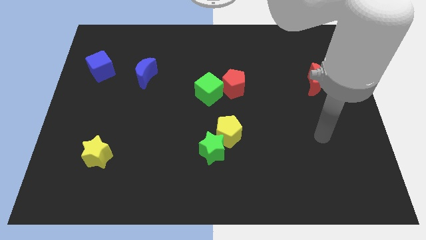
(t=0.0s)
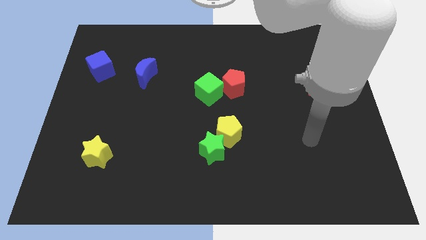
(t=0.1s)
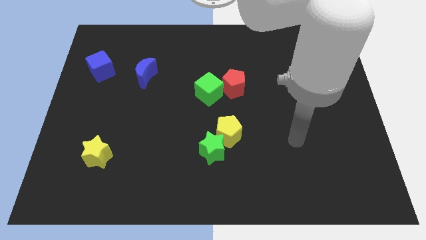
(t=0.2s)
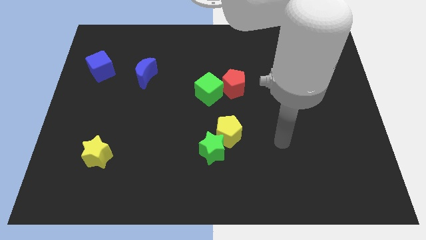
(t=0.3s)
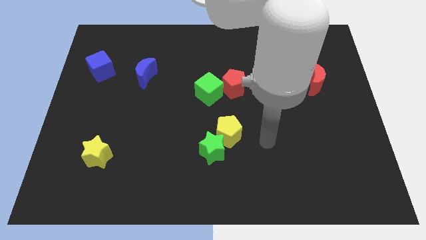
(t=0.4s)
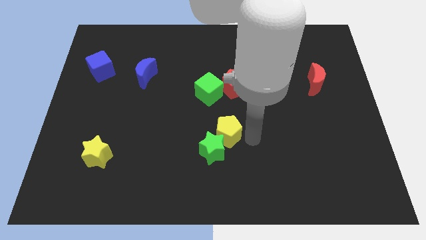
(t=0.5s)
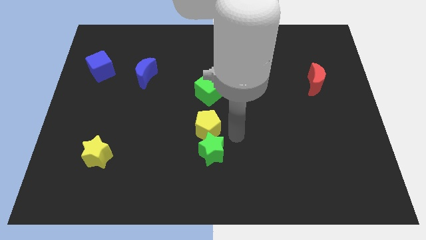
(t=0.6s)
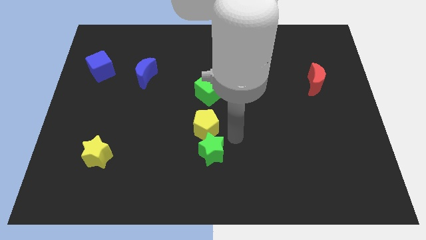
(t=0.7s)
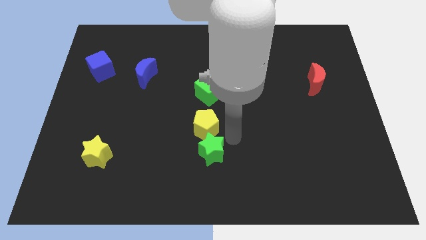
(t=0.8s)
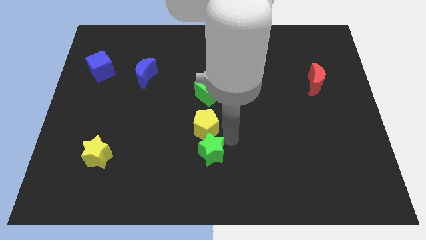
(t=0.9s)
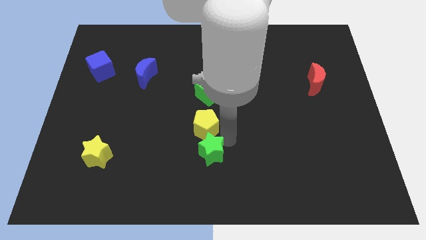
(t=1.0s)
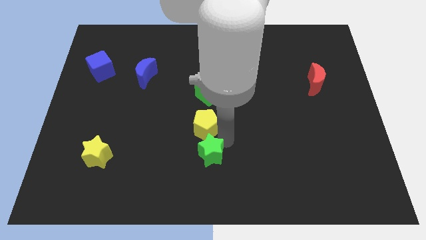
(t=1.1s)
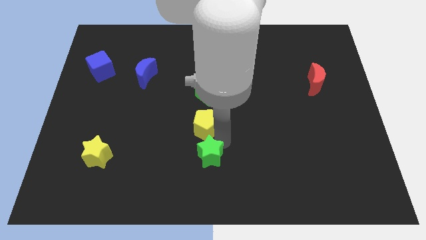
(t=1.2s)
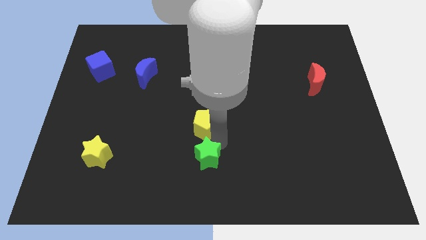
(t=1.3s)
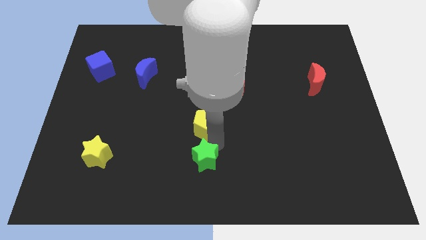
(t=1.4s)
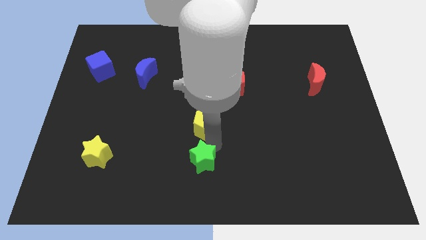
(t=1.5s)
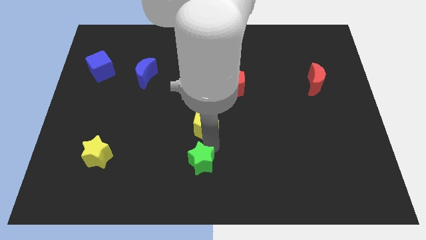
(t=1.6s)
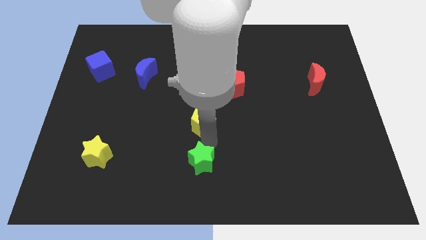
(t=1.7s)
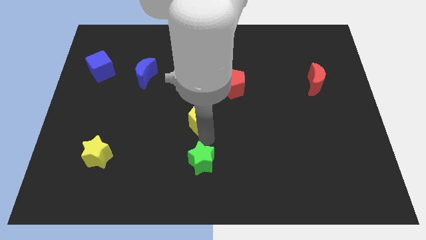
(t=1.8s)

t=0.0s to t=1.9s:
pull the green star apart from the yellow pentagon

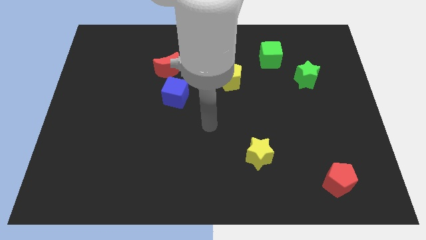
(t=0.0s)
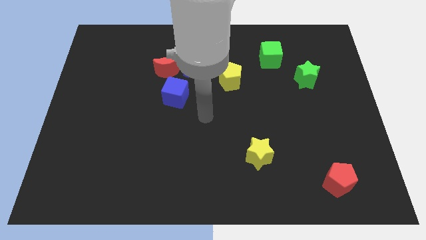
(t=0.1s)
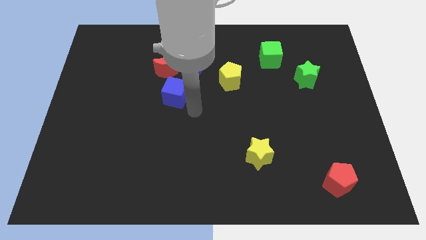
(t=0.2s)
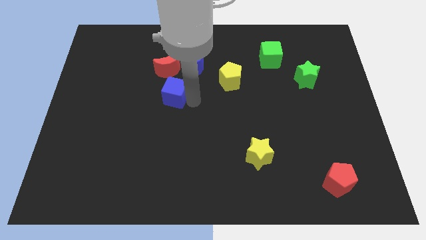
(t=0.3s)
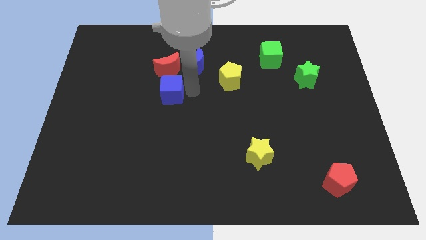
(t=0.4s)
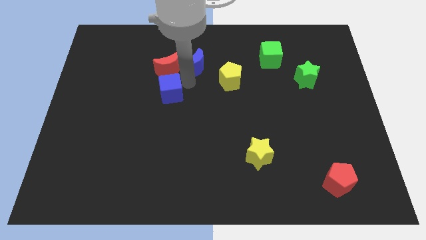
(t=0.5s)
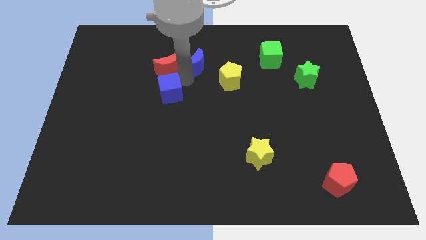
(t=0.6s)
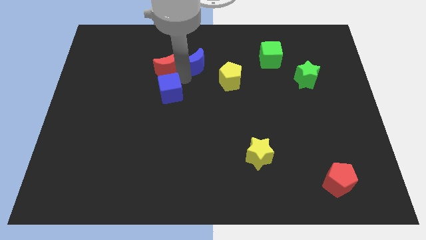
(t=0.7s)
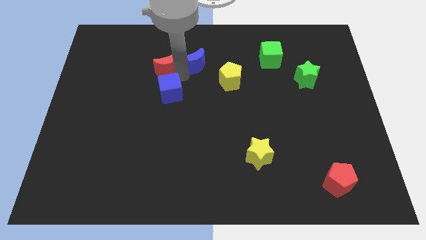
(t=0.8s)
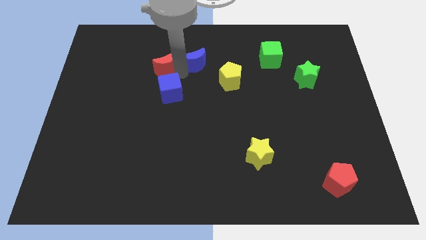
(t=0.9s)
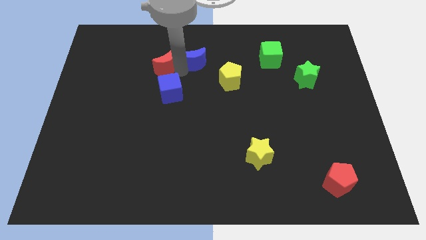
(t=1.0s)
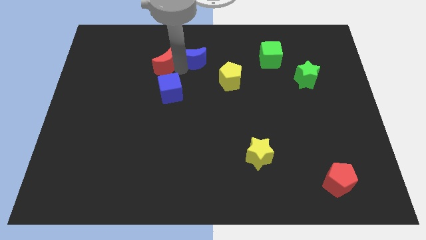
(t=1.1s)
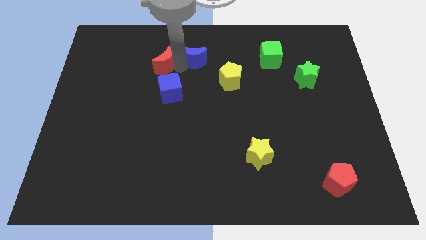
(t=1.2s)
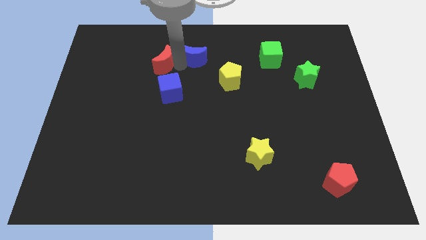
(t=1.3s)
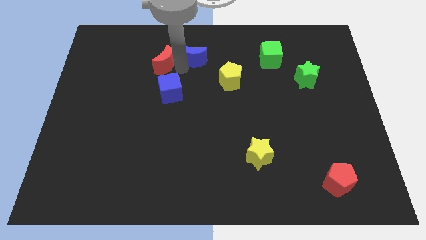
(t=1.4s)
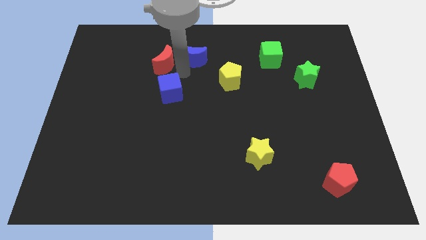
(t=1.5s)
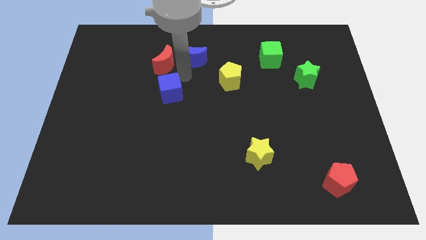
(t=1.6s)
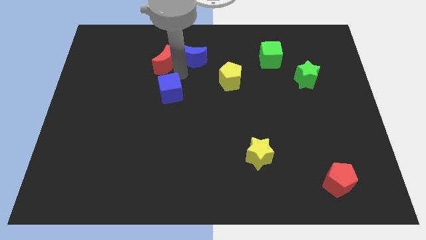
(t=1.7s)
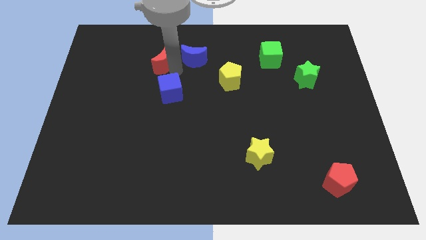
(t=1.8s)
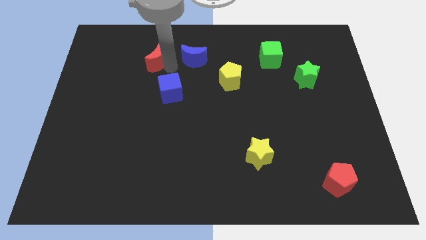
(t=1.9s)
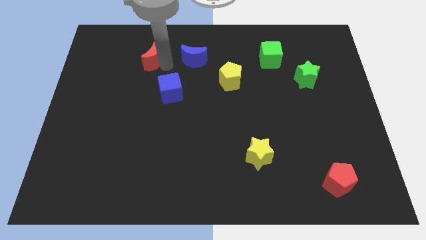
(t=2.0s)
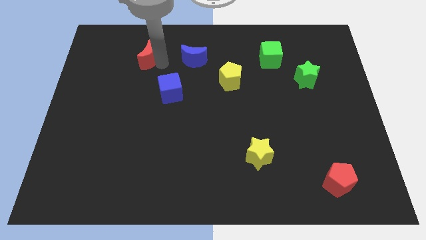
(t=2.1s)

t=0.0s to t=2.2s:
separate the red moon from the blue moon and blue cube

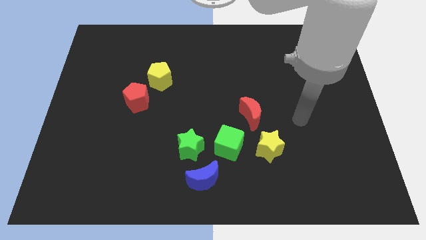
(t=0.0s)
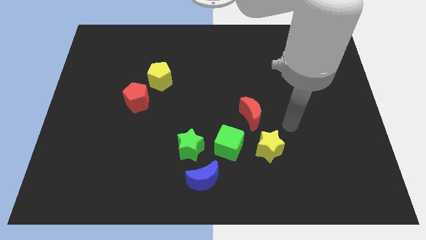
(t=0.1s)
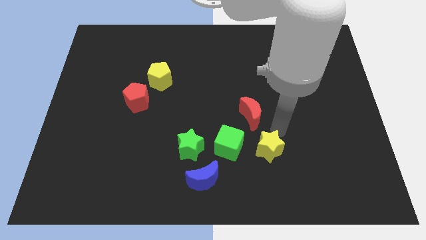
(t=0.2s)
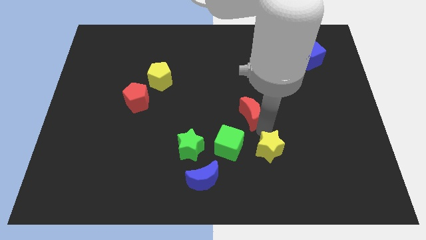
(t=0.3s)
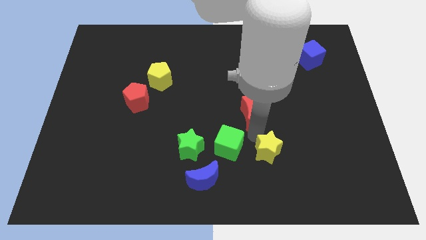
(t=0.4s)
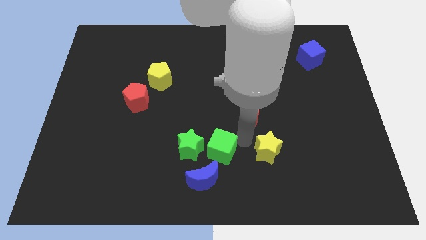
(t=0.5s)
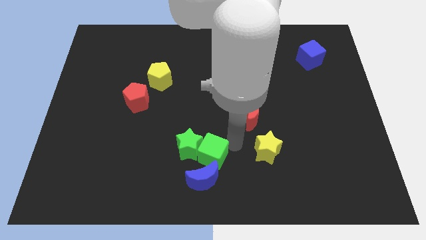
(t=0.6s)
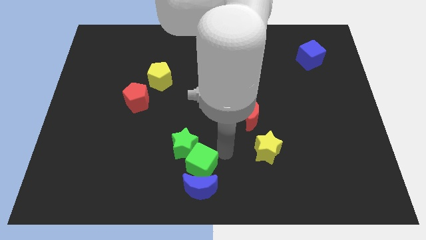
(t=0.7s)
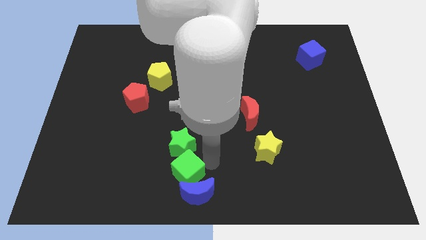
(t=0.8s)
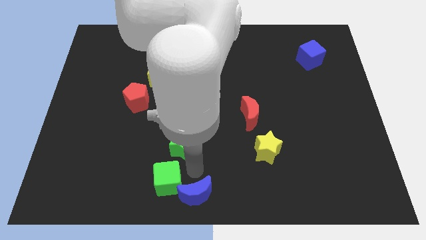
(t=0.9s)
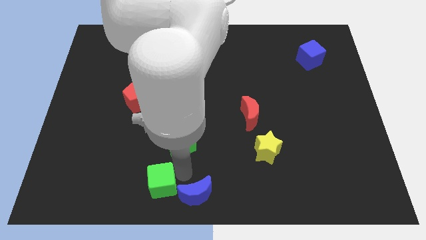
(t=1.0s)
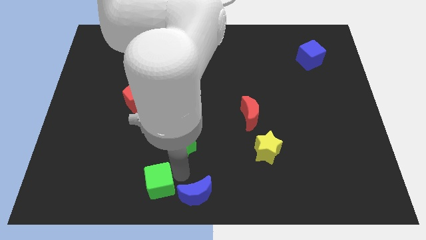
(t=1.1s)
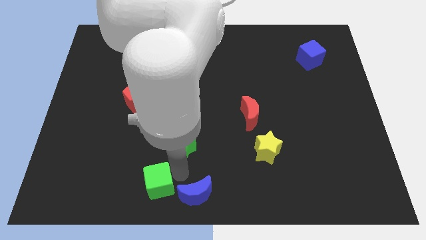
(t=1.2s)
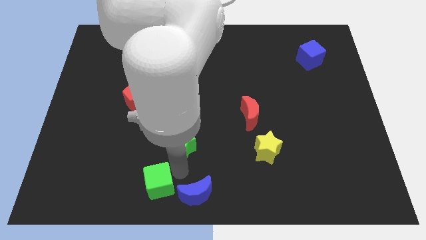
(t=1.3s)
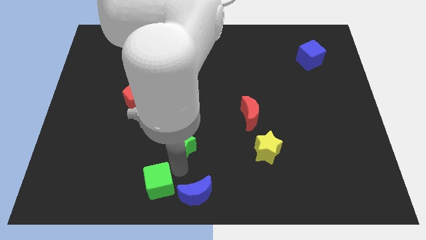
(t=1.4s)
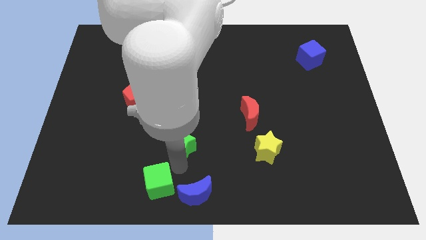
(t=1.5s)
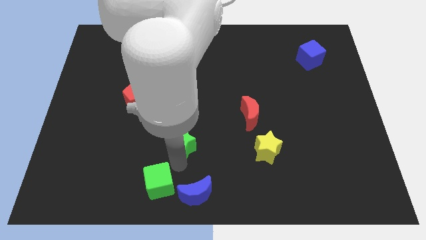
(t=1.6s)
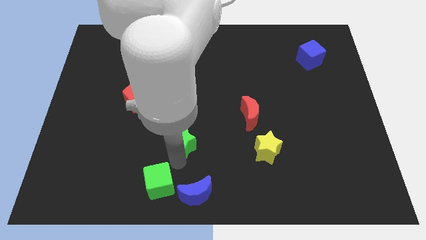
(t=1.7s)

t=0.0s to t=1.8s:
separate the green star from the blue moon and green cube

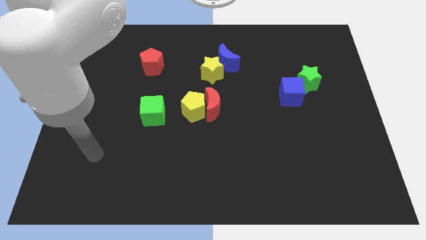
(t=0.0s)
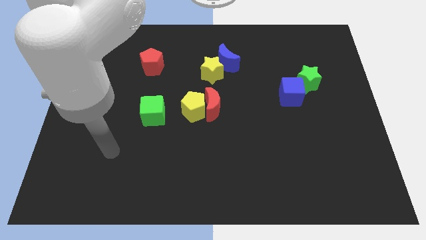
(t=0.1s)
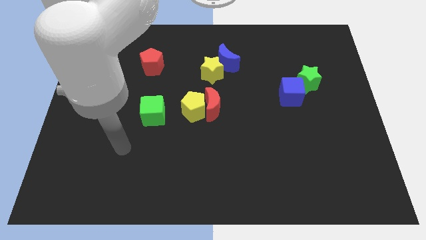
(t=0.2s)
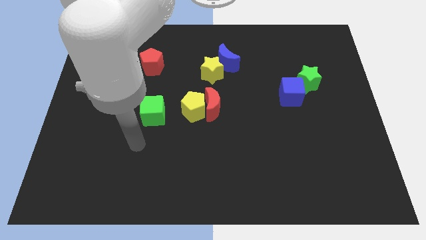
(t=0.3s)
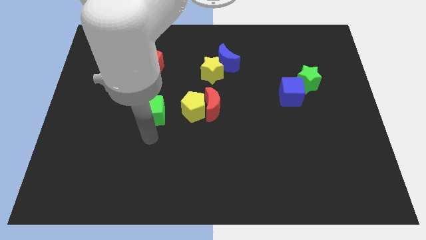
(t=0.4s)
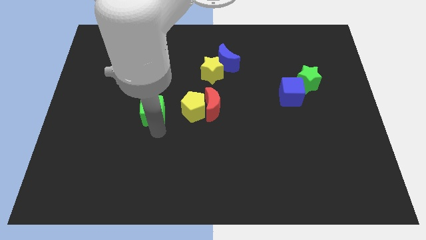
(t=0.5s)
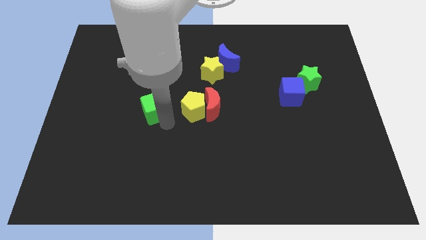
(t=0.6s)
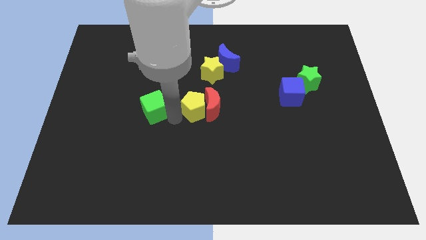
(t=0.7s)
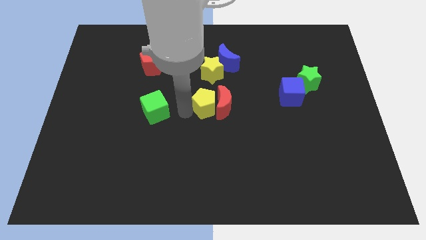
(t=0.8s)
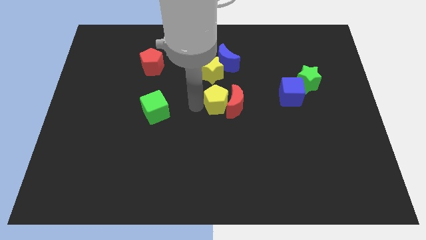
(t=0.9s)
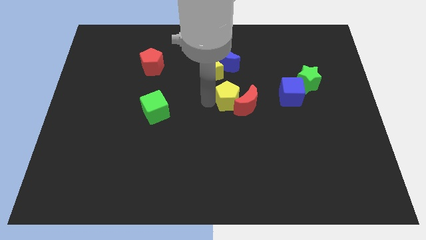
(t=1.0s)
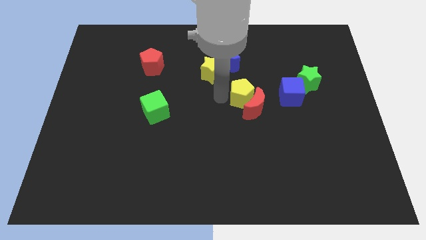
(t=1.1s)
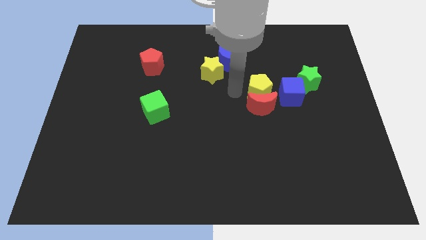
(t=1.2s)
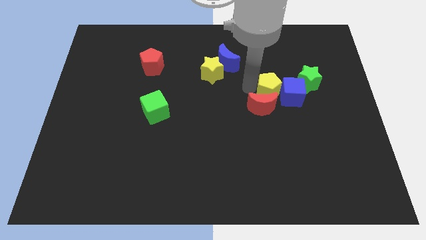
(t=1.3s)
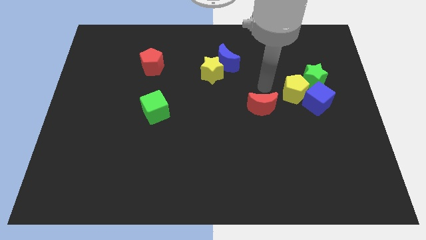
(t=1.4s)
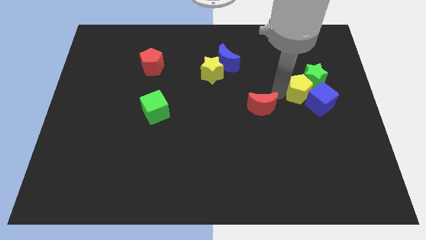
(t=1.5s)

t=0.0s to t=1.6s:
move the red moon away from the yellow pentagon

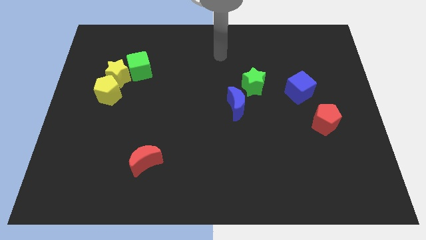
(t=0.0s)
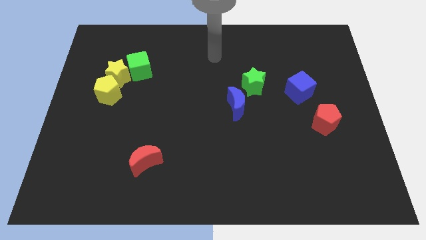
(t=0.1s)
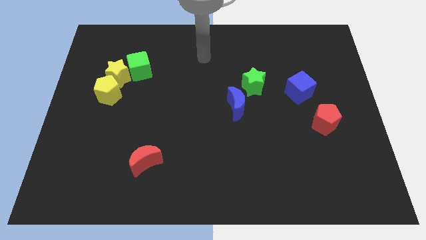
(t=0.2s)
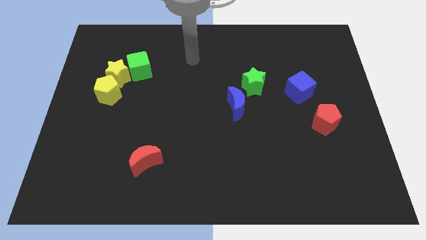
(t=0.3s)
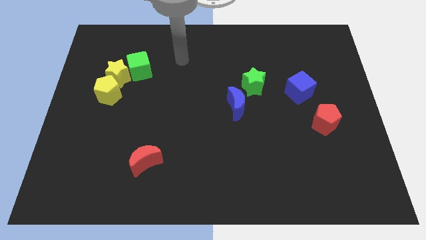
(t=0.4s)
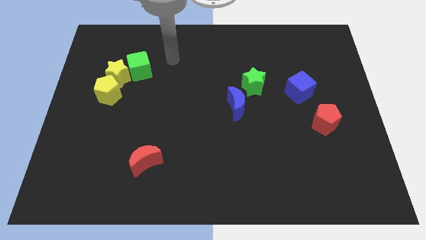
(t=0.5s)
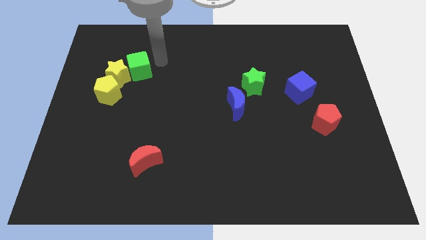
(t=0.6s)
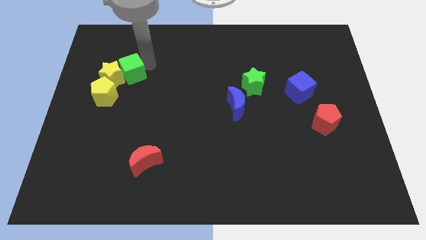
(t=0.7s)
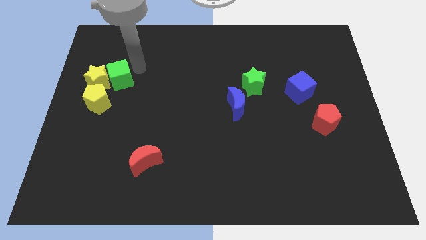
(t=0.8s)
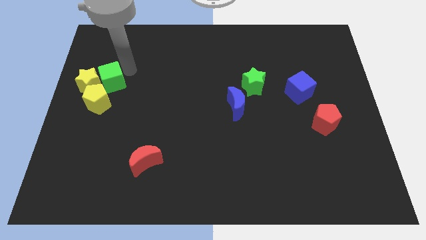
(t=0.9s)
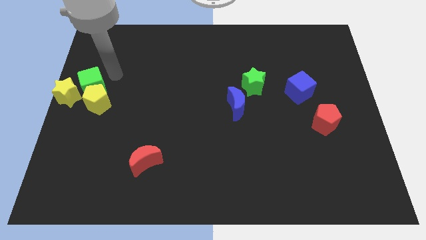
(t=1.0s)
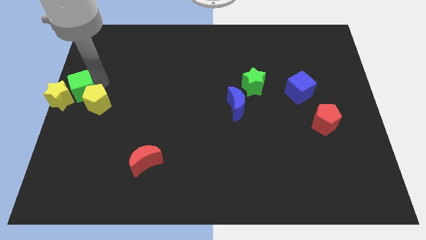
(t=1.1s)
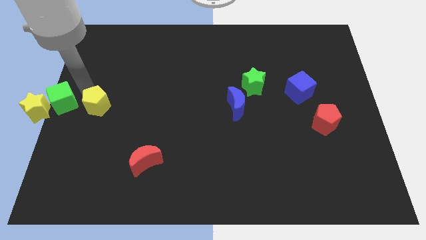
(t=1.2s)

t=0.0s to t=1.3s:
move the yellow pentagon away from the yellow star

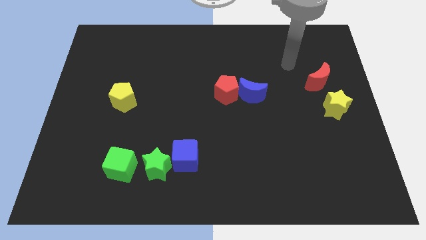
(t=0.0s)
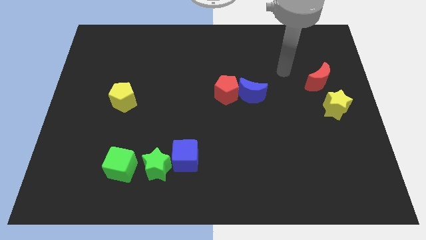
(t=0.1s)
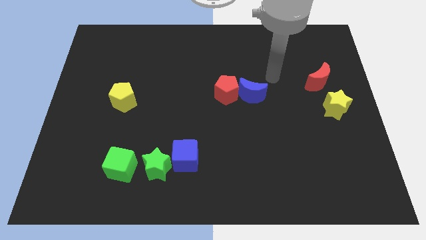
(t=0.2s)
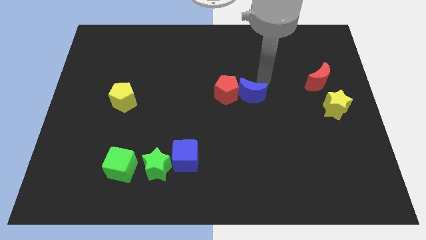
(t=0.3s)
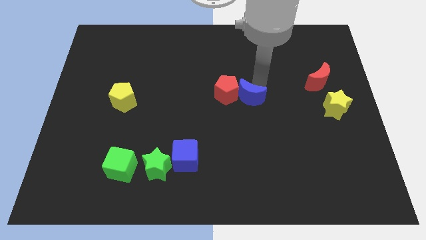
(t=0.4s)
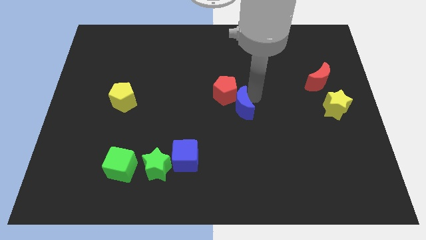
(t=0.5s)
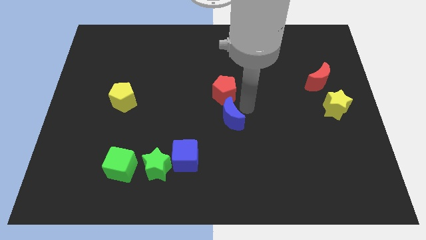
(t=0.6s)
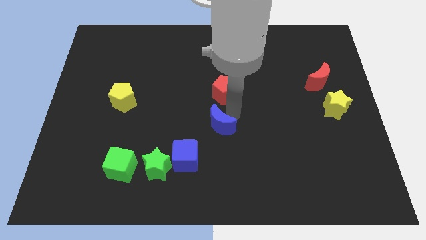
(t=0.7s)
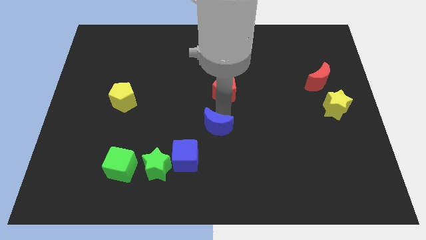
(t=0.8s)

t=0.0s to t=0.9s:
move the red pentagon away from the blue moon
